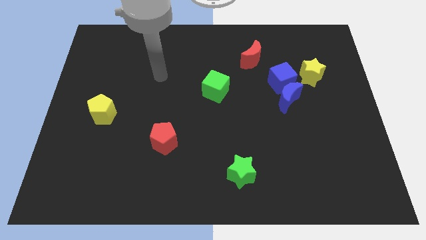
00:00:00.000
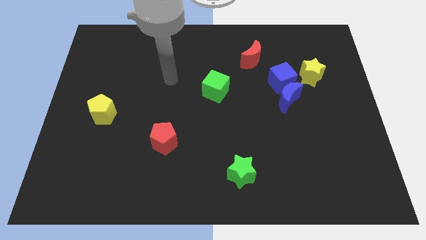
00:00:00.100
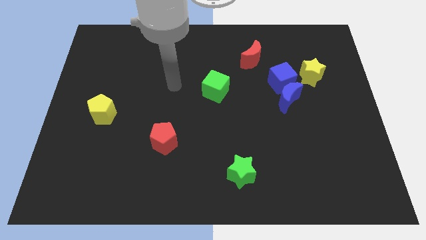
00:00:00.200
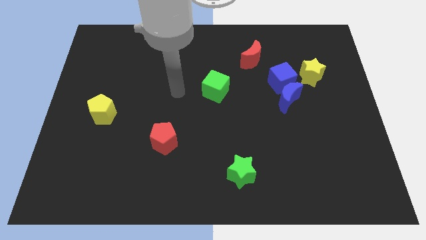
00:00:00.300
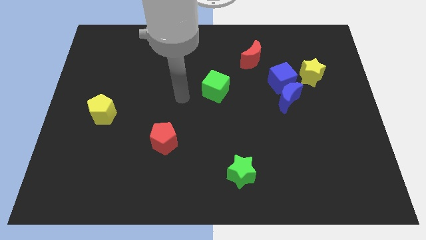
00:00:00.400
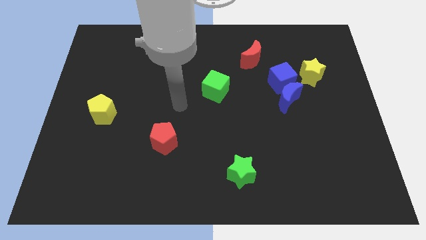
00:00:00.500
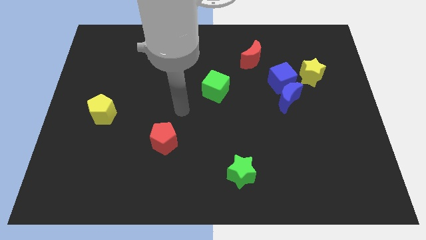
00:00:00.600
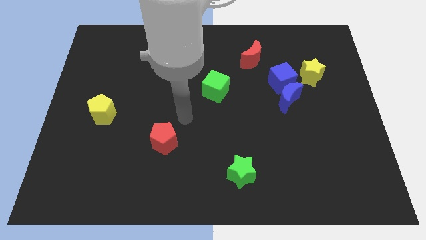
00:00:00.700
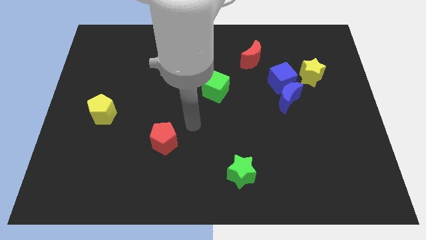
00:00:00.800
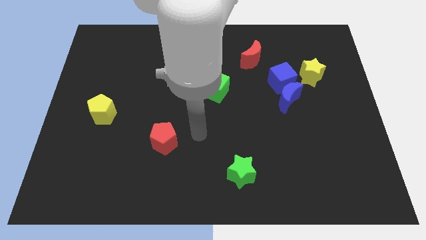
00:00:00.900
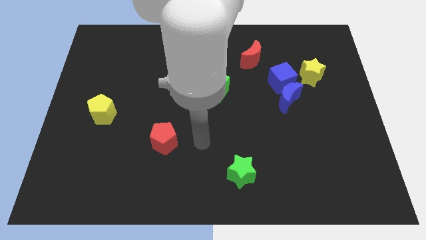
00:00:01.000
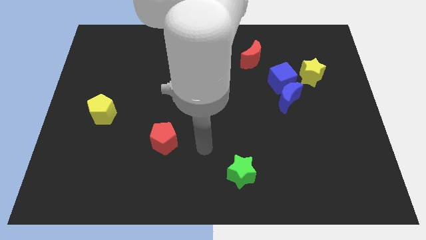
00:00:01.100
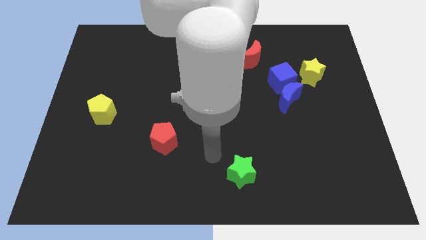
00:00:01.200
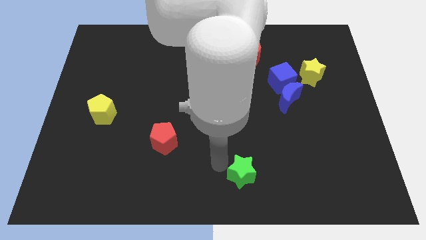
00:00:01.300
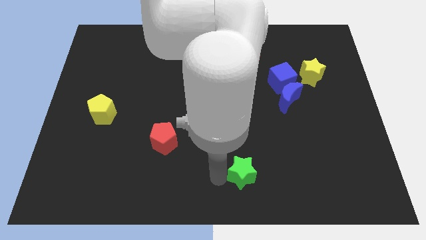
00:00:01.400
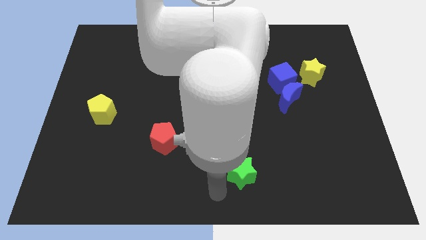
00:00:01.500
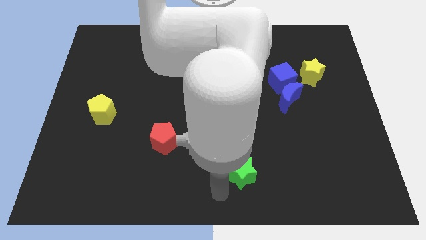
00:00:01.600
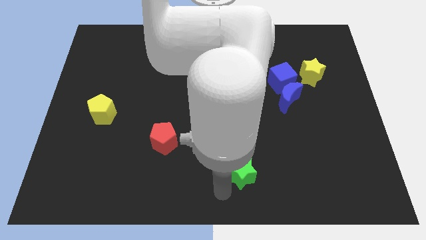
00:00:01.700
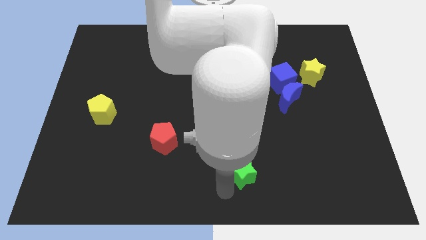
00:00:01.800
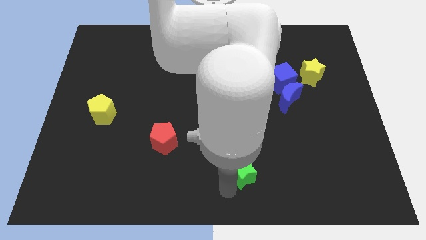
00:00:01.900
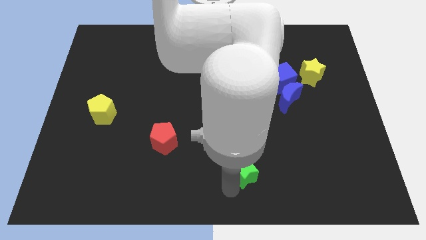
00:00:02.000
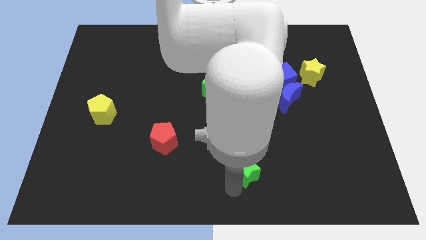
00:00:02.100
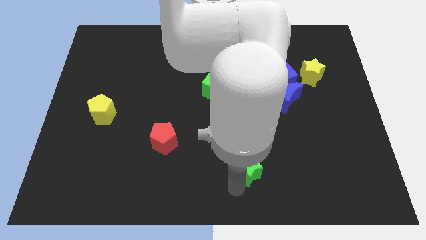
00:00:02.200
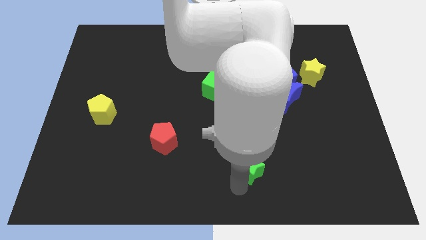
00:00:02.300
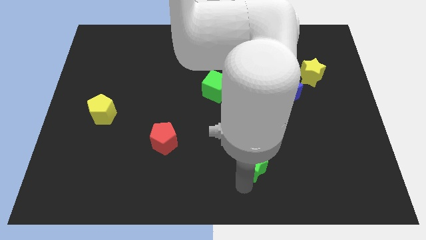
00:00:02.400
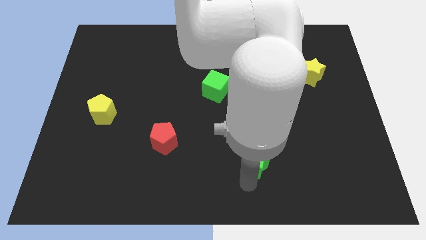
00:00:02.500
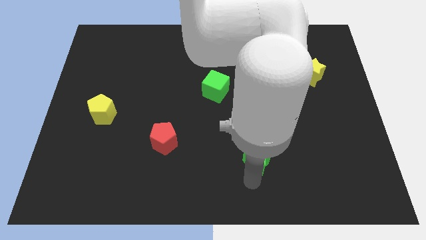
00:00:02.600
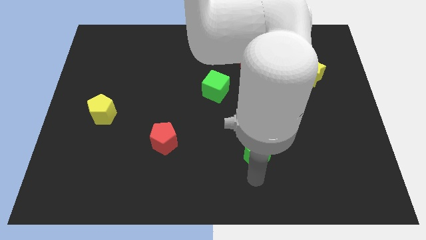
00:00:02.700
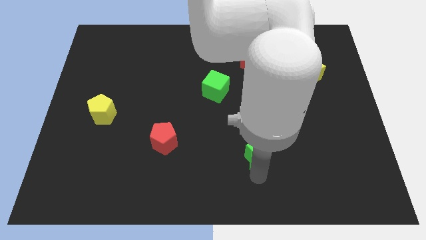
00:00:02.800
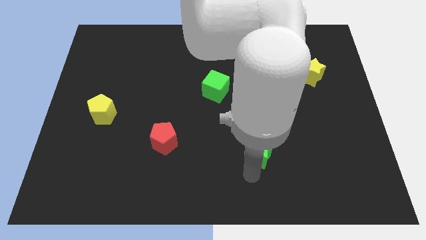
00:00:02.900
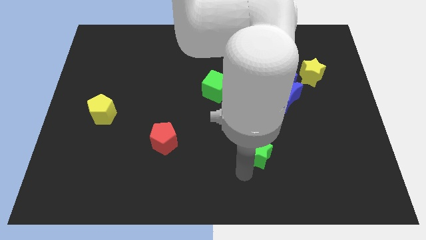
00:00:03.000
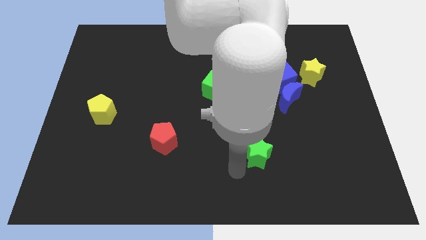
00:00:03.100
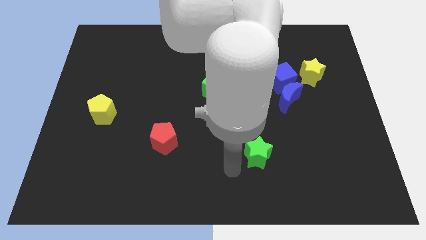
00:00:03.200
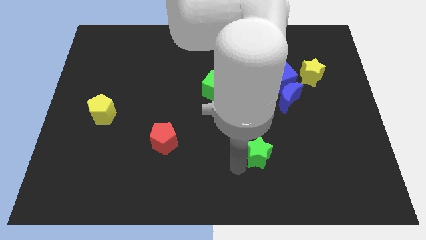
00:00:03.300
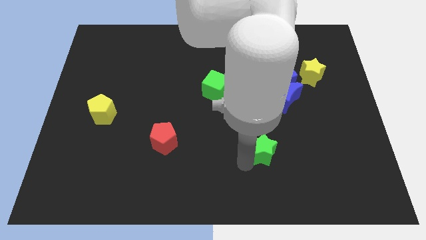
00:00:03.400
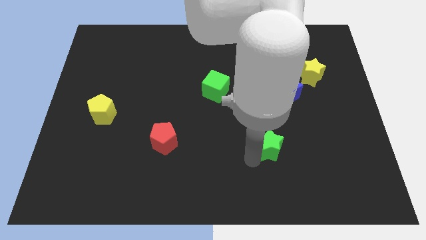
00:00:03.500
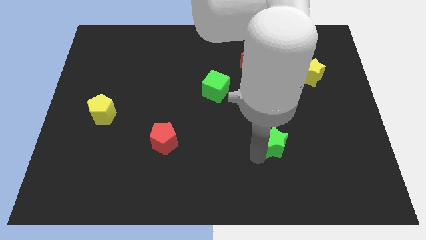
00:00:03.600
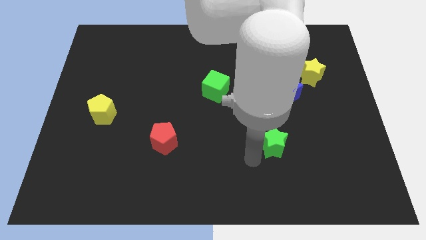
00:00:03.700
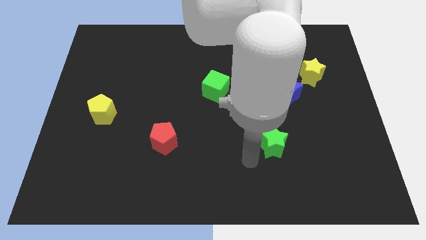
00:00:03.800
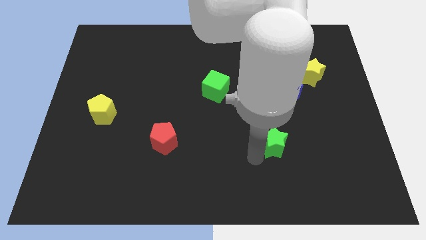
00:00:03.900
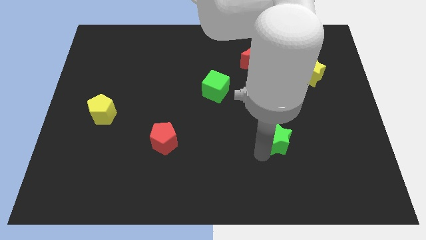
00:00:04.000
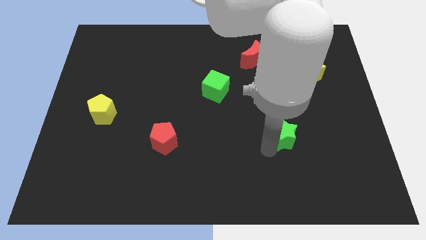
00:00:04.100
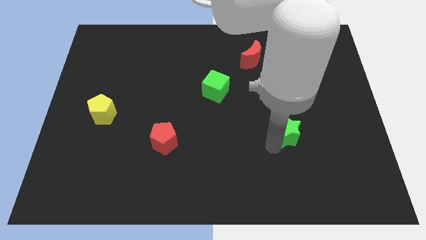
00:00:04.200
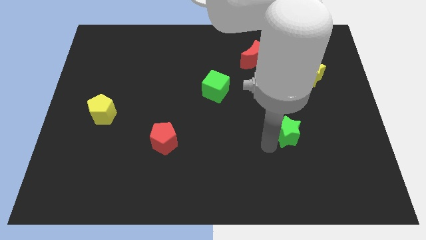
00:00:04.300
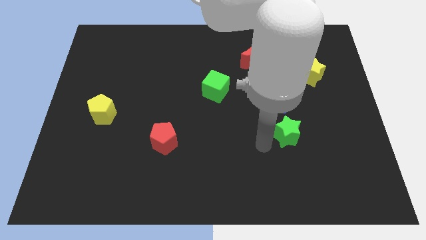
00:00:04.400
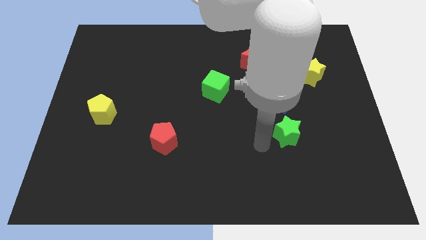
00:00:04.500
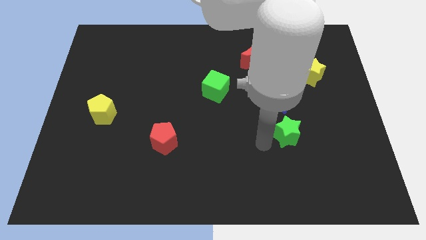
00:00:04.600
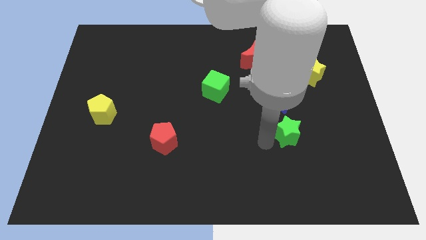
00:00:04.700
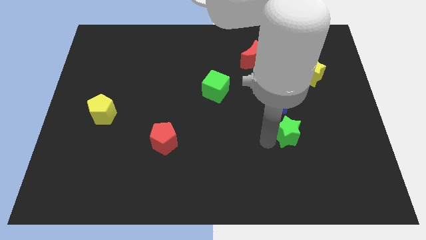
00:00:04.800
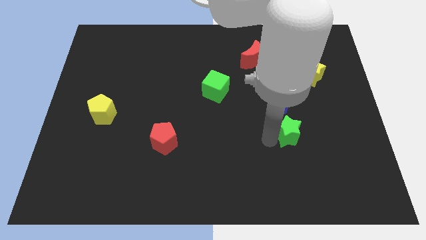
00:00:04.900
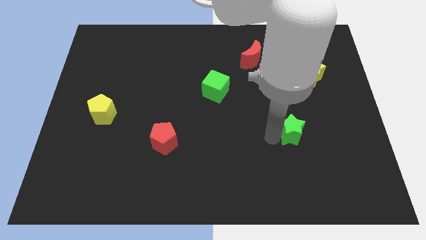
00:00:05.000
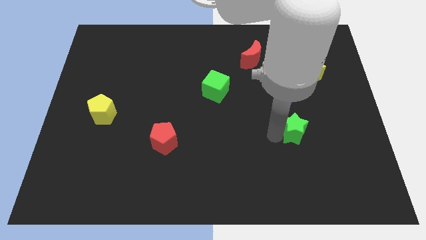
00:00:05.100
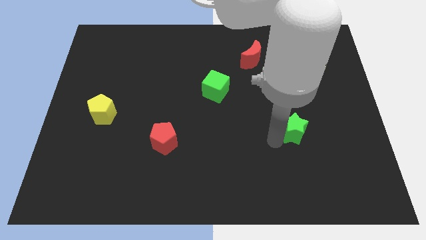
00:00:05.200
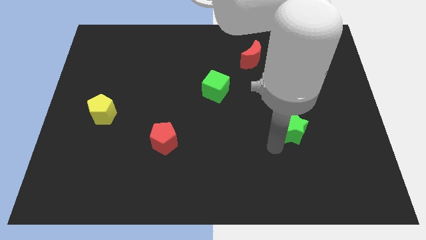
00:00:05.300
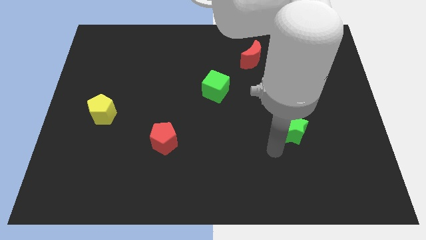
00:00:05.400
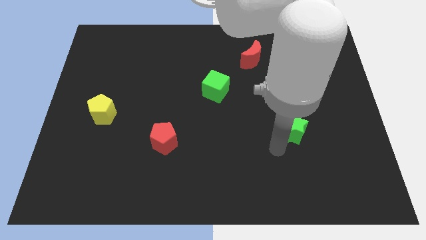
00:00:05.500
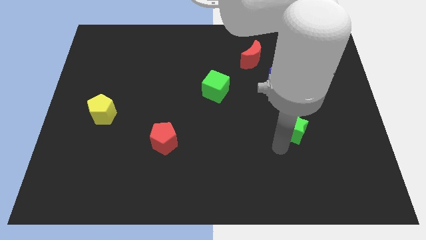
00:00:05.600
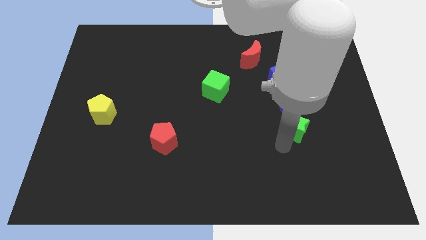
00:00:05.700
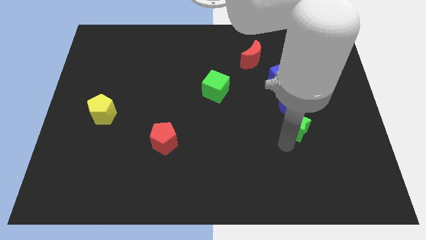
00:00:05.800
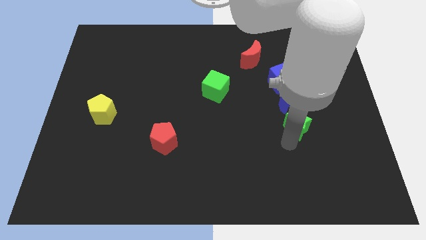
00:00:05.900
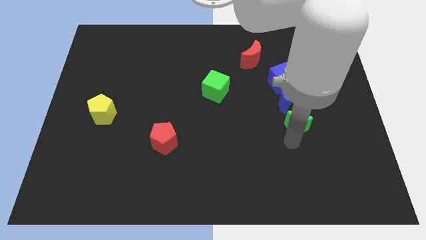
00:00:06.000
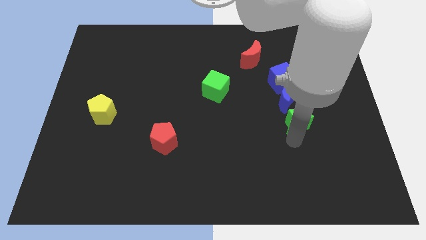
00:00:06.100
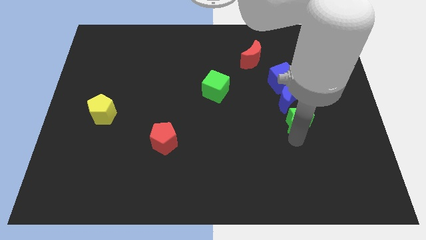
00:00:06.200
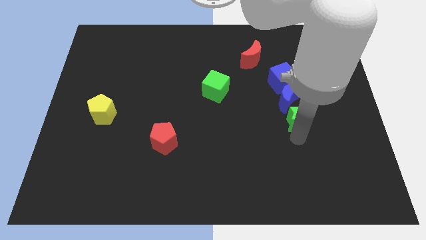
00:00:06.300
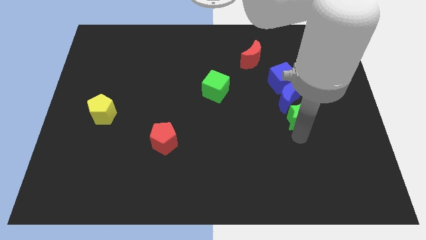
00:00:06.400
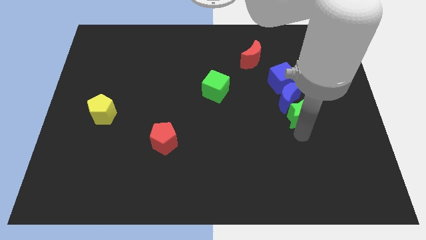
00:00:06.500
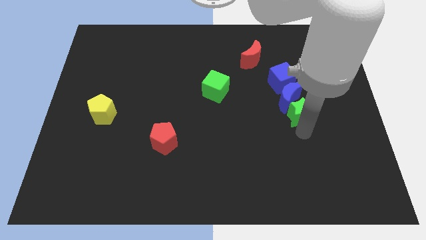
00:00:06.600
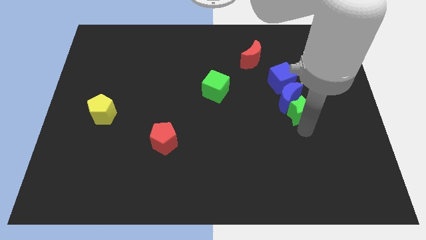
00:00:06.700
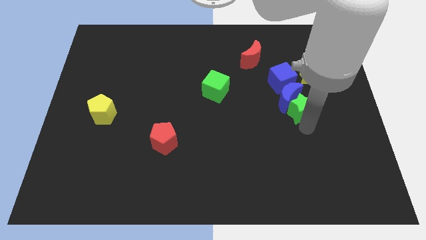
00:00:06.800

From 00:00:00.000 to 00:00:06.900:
move the green star to the right side of the blue moon

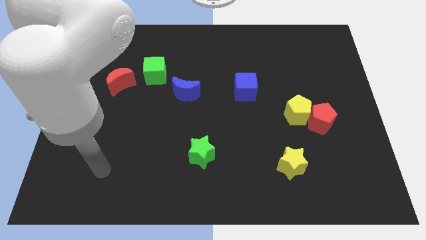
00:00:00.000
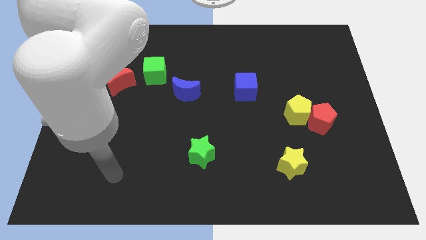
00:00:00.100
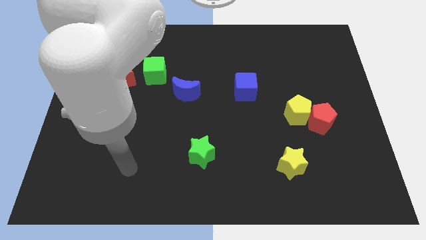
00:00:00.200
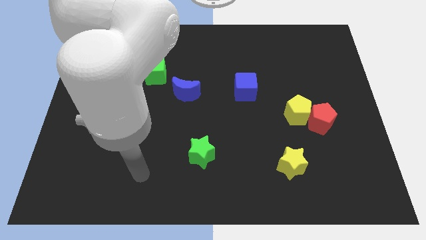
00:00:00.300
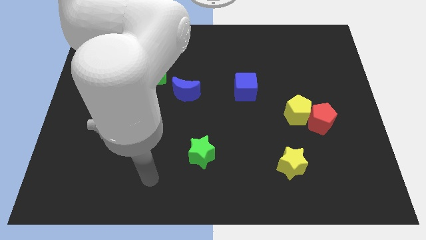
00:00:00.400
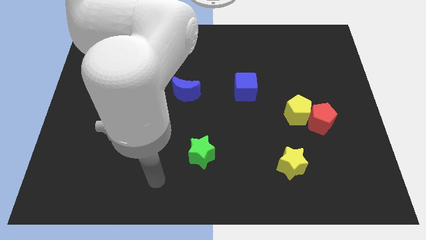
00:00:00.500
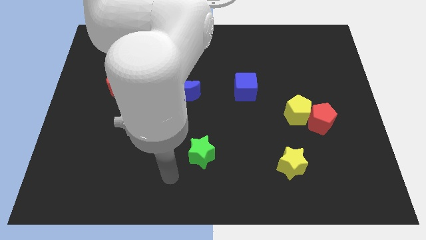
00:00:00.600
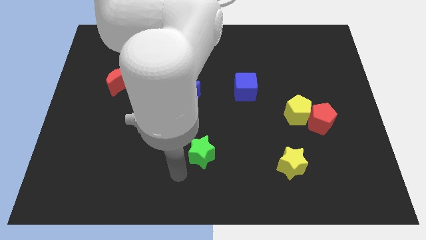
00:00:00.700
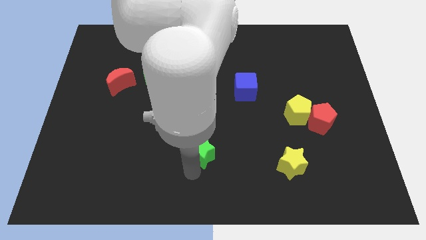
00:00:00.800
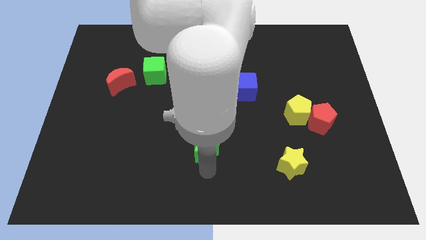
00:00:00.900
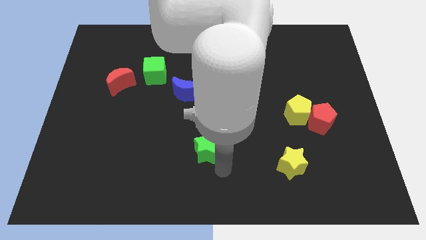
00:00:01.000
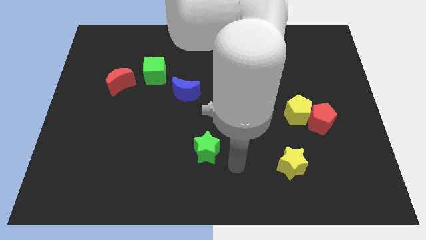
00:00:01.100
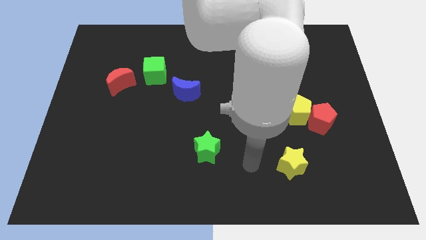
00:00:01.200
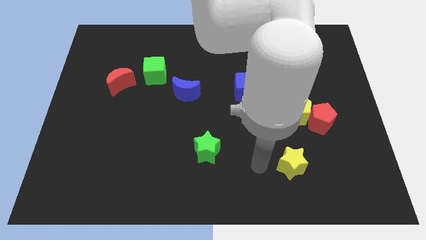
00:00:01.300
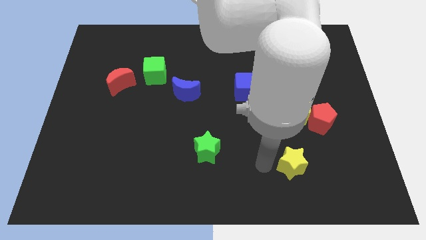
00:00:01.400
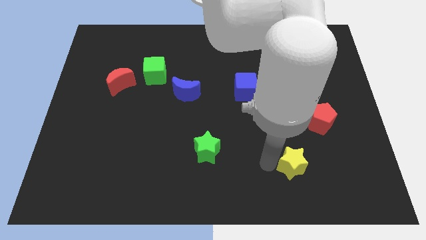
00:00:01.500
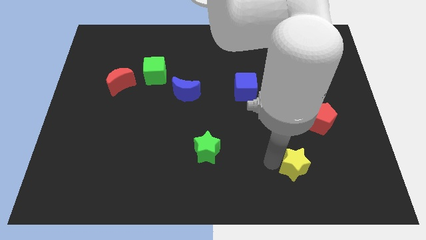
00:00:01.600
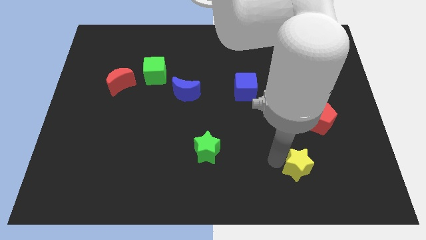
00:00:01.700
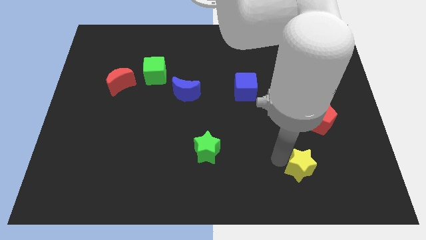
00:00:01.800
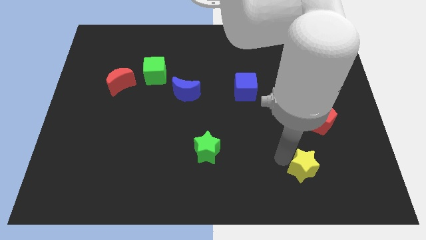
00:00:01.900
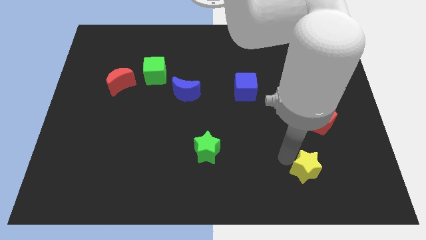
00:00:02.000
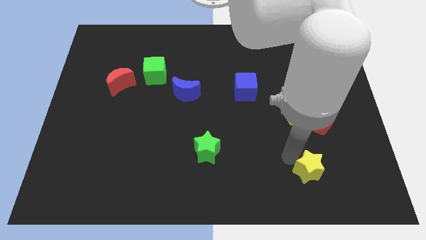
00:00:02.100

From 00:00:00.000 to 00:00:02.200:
slide the yellow star to the bottom of the red pentagon
